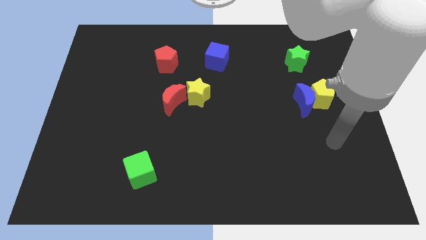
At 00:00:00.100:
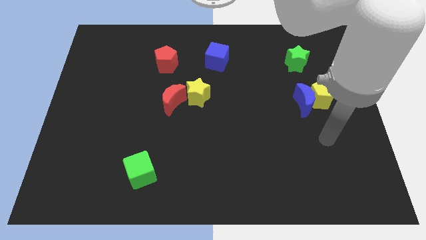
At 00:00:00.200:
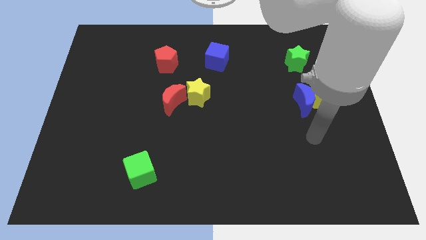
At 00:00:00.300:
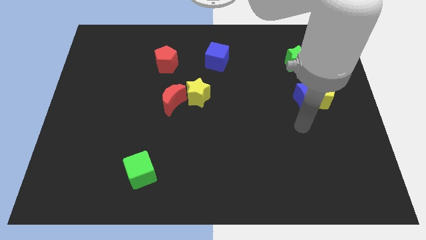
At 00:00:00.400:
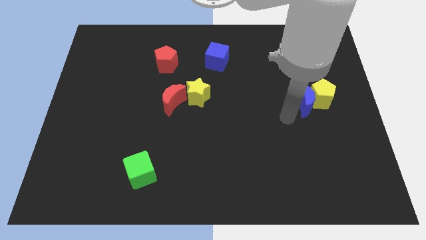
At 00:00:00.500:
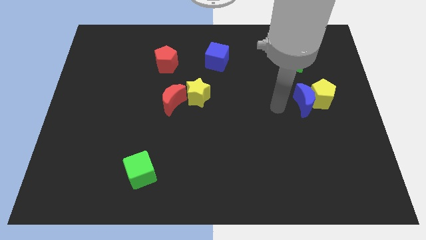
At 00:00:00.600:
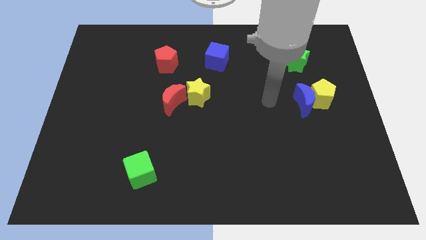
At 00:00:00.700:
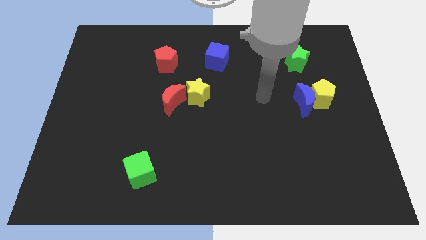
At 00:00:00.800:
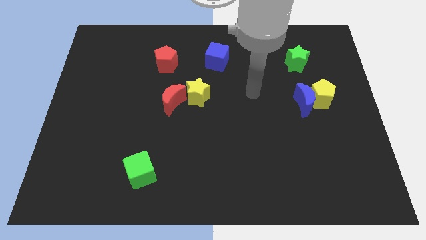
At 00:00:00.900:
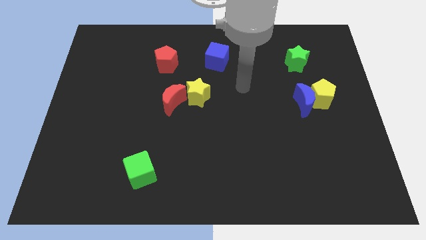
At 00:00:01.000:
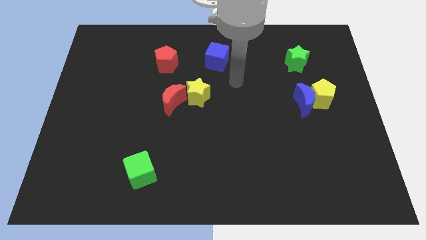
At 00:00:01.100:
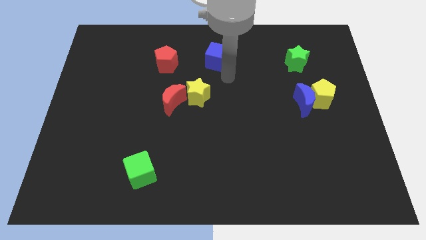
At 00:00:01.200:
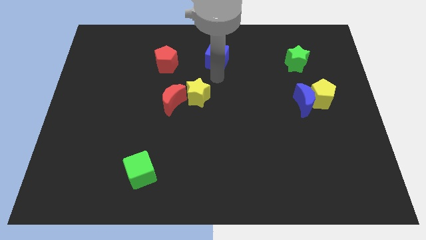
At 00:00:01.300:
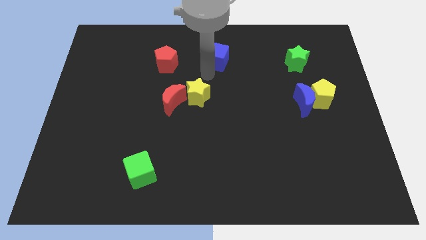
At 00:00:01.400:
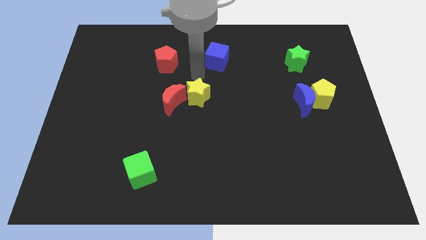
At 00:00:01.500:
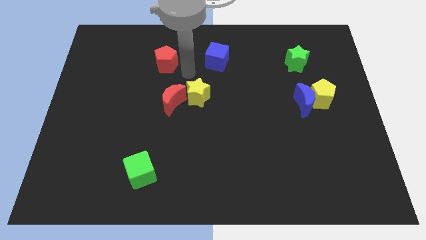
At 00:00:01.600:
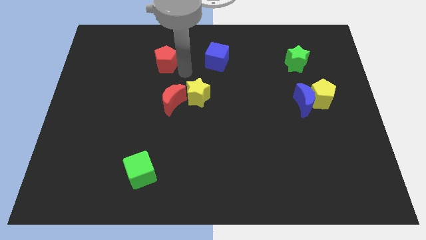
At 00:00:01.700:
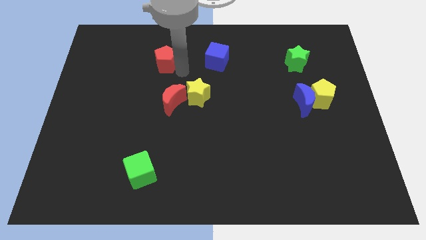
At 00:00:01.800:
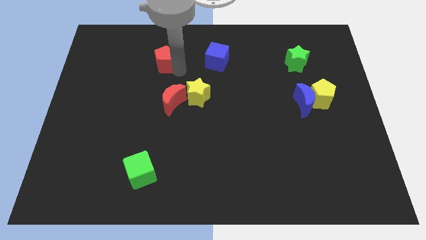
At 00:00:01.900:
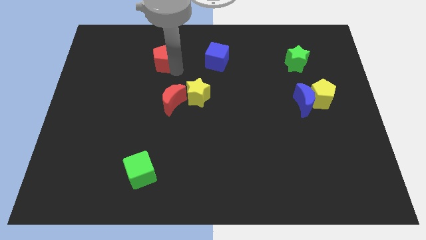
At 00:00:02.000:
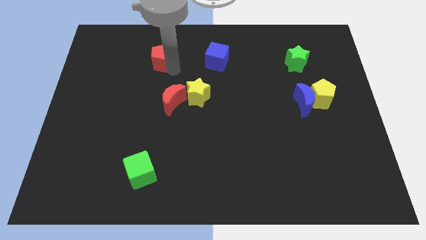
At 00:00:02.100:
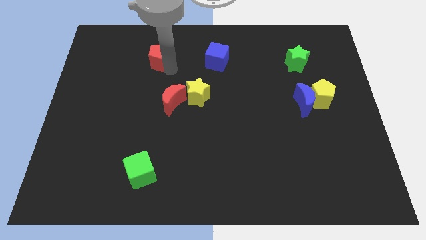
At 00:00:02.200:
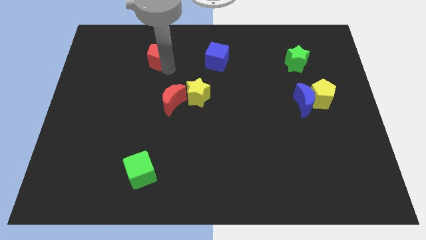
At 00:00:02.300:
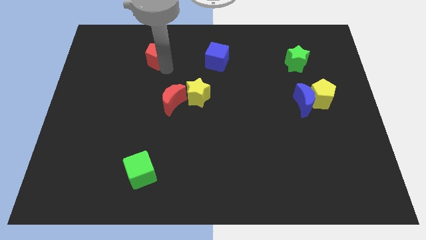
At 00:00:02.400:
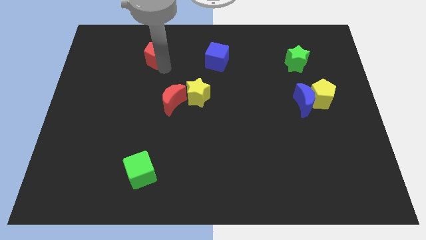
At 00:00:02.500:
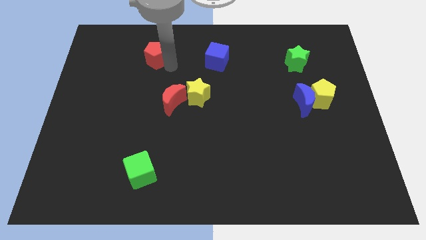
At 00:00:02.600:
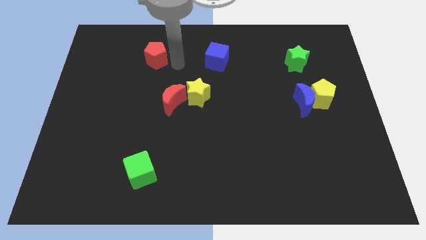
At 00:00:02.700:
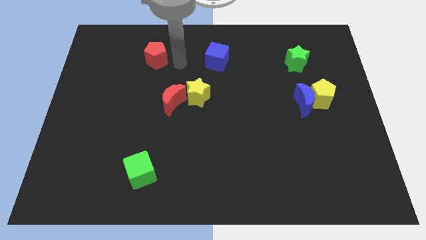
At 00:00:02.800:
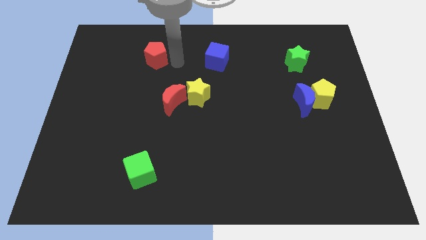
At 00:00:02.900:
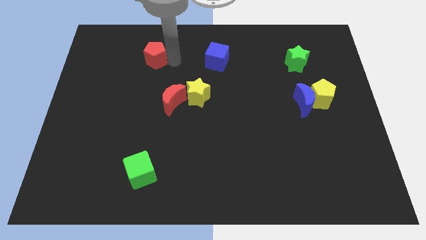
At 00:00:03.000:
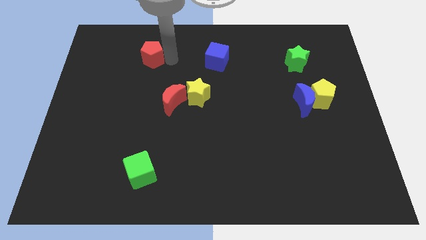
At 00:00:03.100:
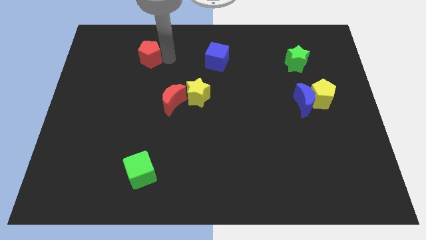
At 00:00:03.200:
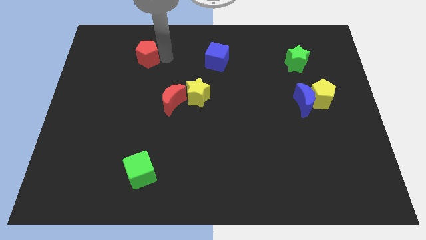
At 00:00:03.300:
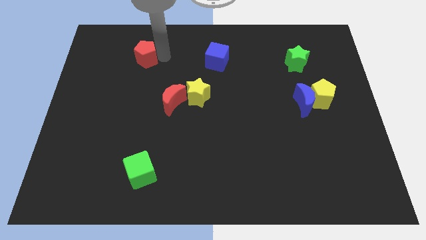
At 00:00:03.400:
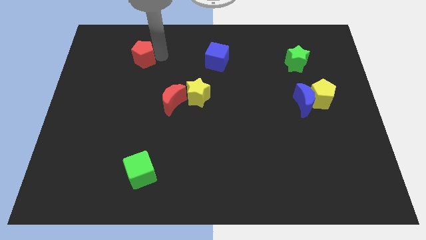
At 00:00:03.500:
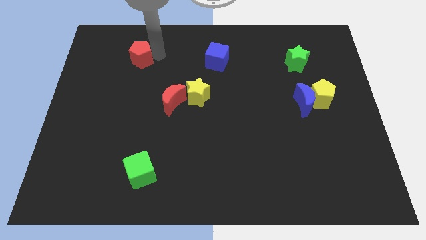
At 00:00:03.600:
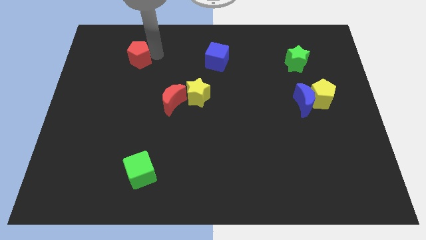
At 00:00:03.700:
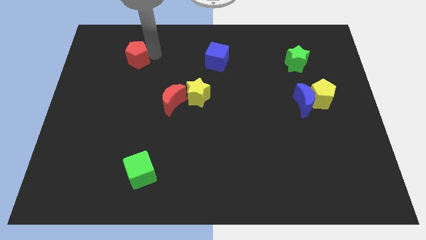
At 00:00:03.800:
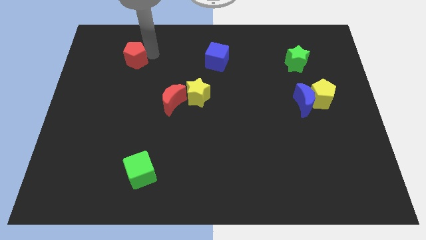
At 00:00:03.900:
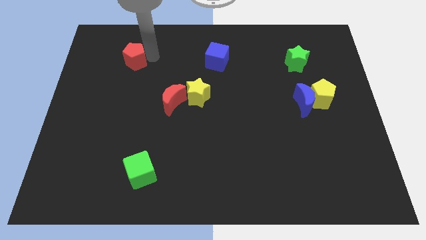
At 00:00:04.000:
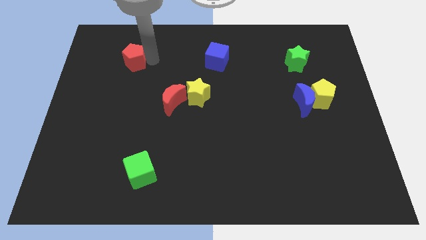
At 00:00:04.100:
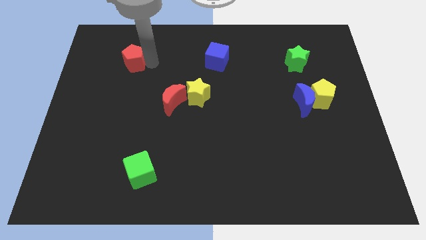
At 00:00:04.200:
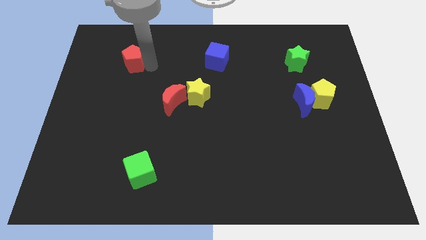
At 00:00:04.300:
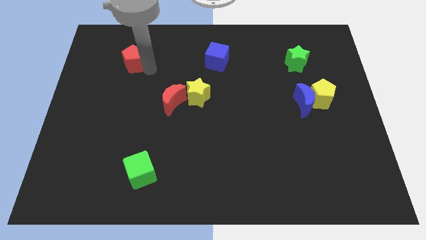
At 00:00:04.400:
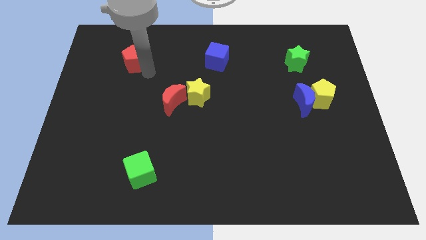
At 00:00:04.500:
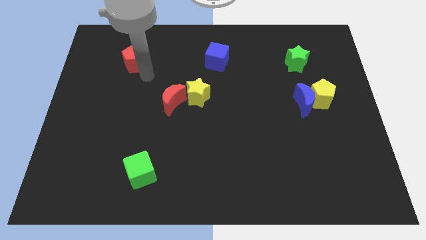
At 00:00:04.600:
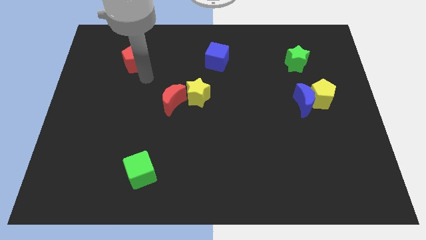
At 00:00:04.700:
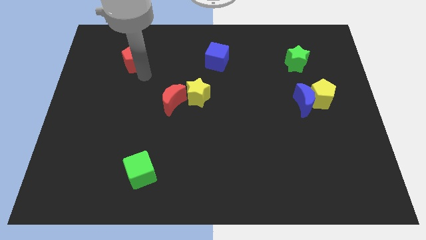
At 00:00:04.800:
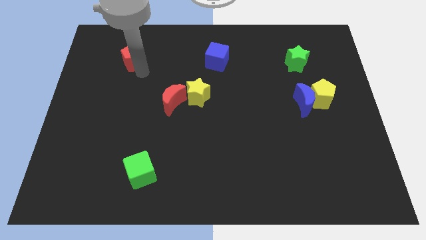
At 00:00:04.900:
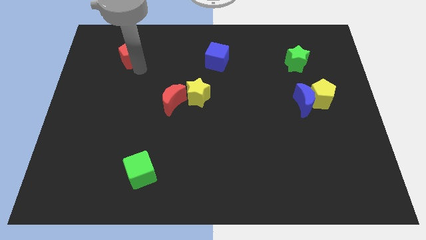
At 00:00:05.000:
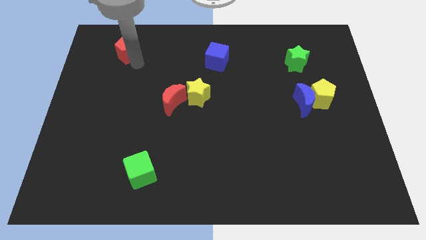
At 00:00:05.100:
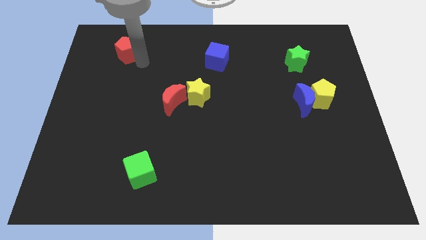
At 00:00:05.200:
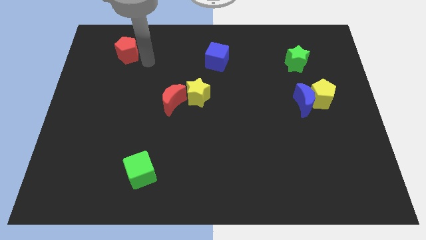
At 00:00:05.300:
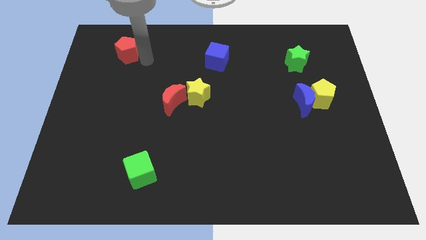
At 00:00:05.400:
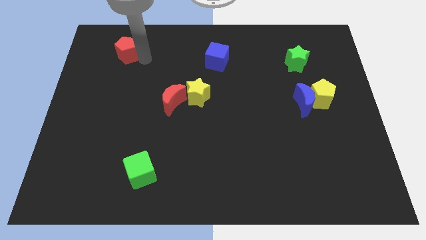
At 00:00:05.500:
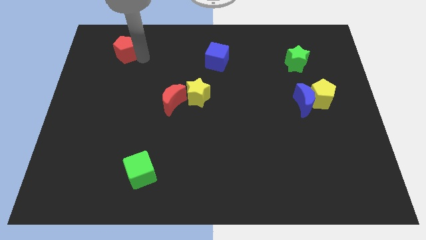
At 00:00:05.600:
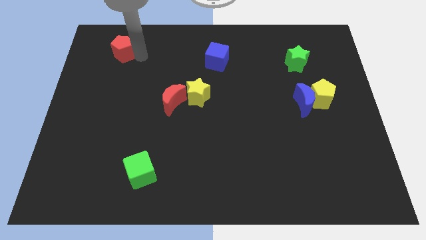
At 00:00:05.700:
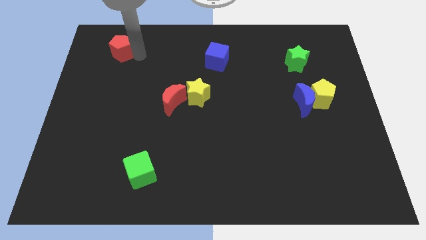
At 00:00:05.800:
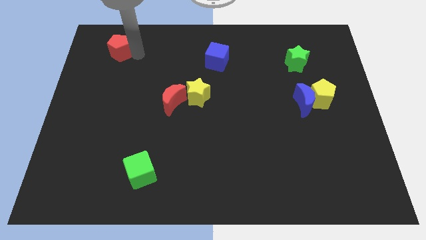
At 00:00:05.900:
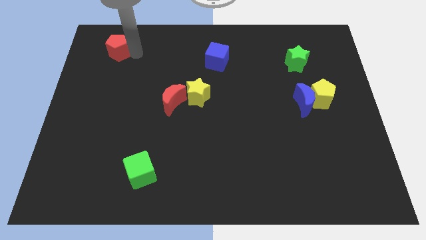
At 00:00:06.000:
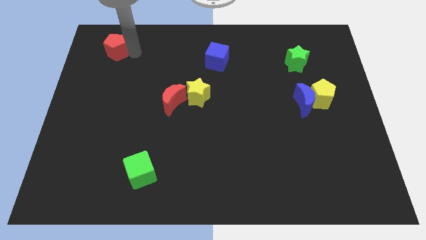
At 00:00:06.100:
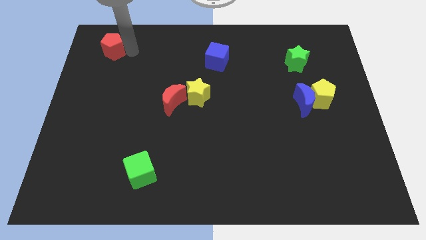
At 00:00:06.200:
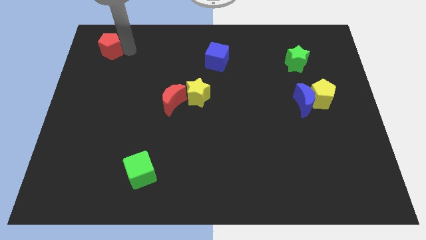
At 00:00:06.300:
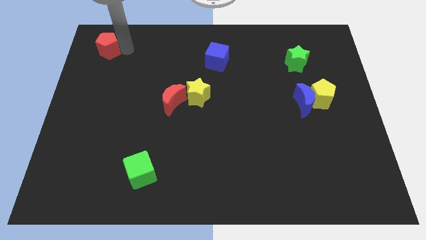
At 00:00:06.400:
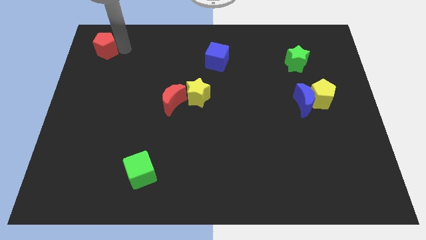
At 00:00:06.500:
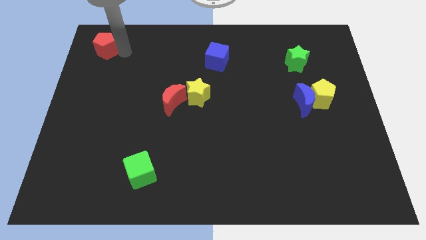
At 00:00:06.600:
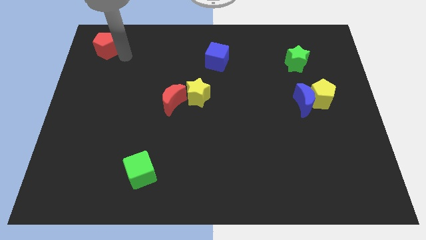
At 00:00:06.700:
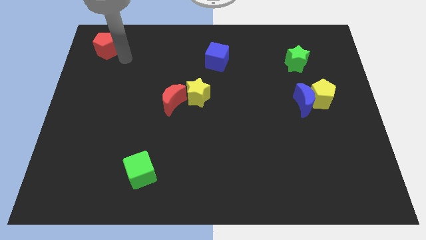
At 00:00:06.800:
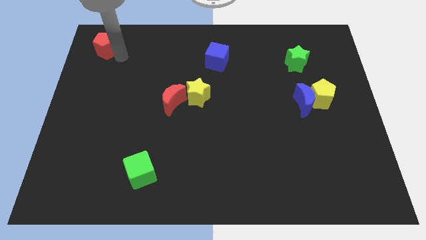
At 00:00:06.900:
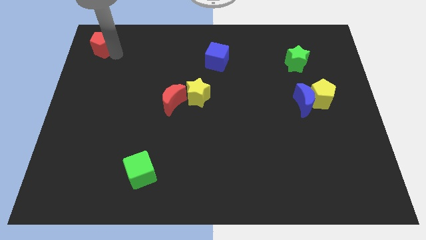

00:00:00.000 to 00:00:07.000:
slide the red pentagon to the upper left corner
